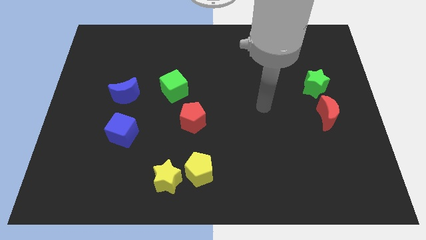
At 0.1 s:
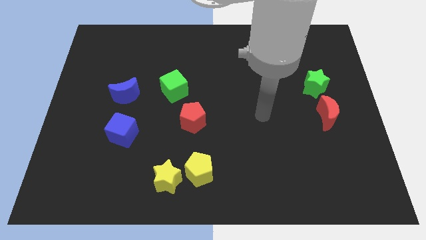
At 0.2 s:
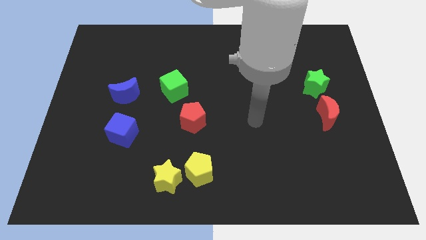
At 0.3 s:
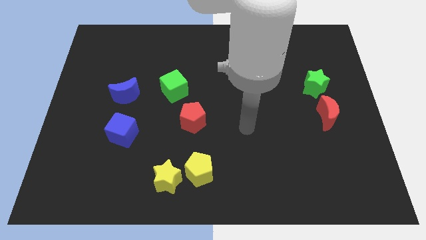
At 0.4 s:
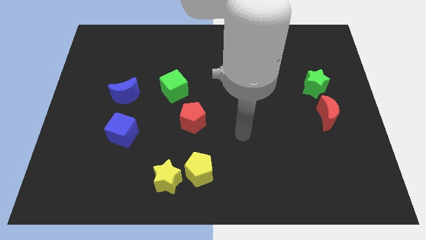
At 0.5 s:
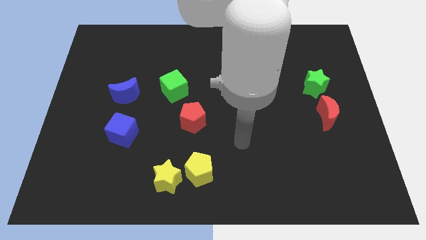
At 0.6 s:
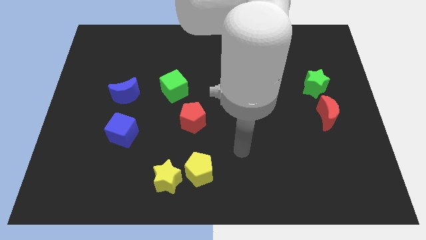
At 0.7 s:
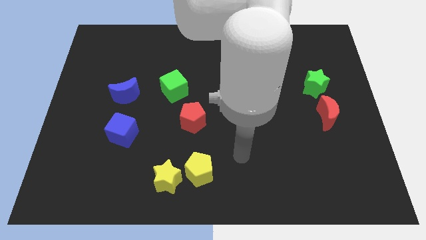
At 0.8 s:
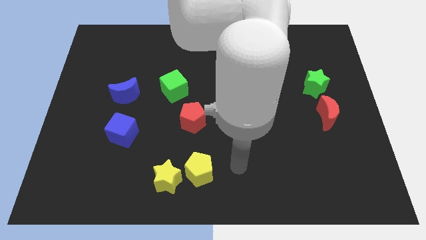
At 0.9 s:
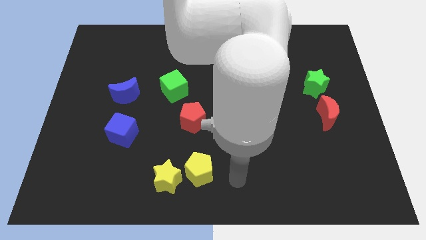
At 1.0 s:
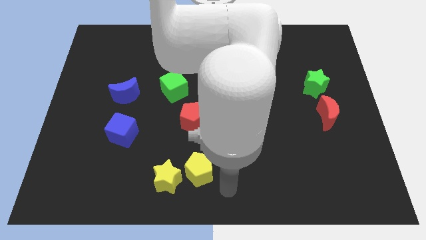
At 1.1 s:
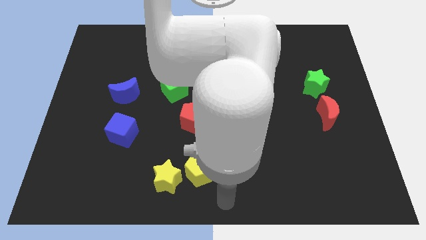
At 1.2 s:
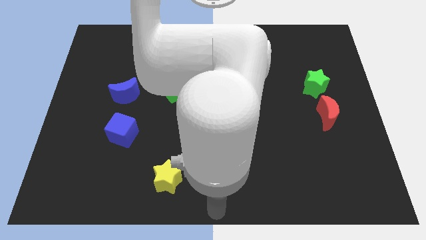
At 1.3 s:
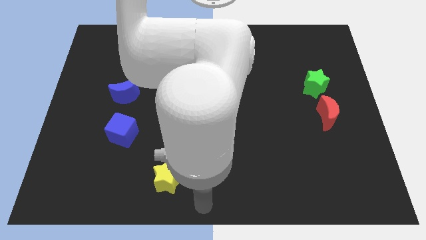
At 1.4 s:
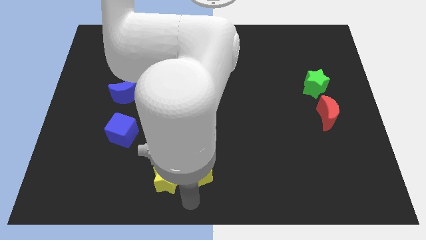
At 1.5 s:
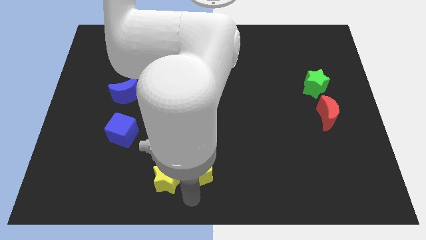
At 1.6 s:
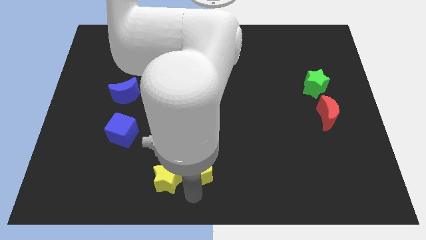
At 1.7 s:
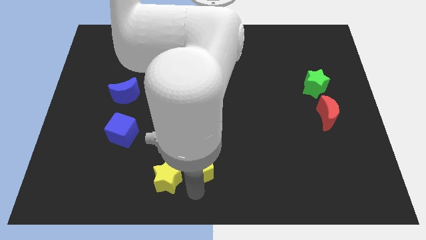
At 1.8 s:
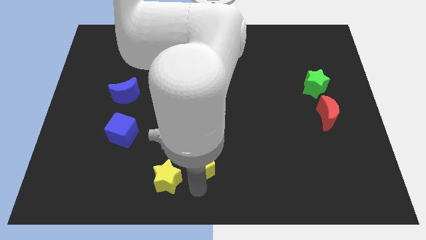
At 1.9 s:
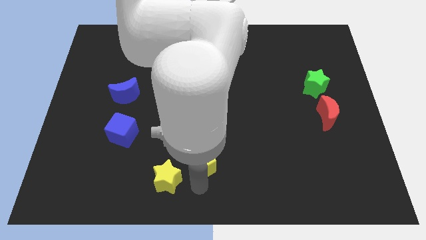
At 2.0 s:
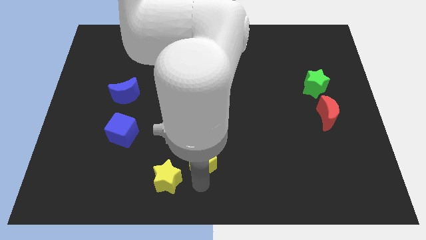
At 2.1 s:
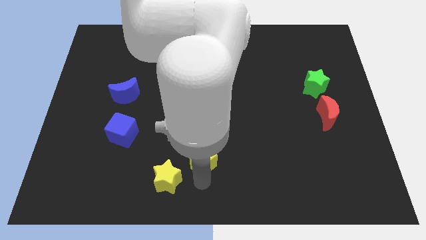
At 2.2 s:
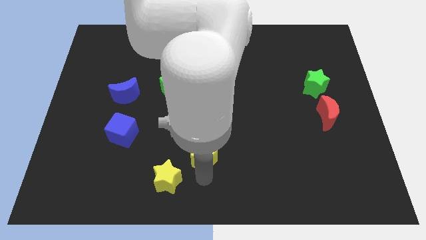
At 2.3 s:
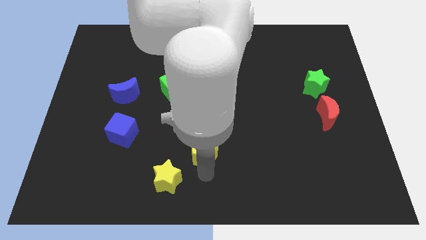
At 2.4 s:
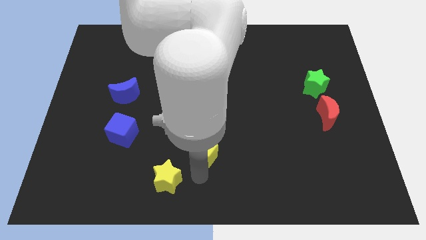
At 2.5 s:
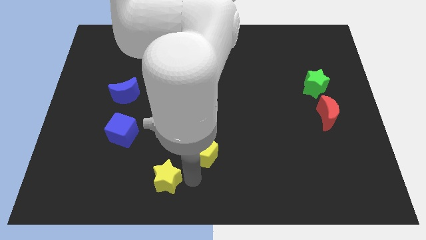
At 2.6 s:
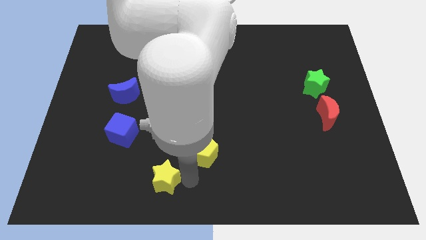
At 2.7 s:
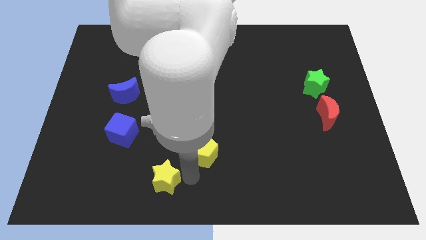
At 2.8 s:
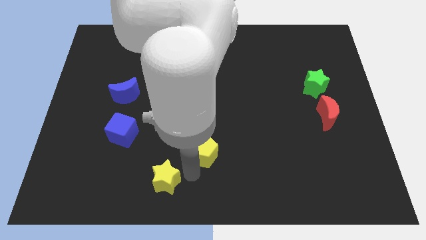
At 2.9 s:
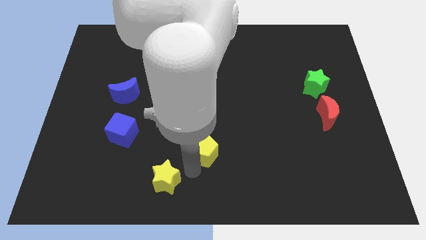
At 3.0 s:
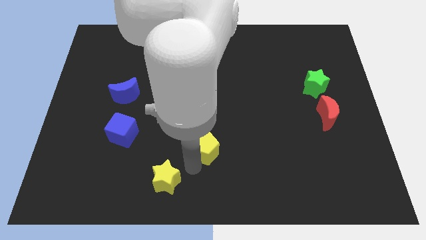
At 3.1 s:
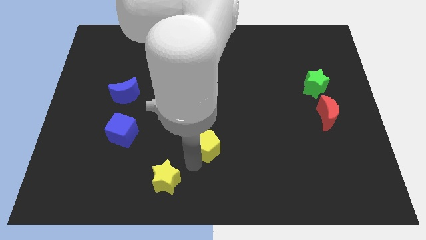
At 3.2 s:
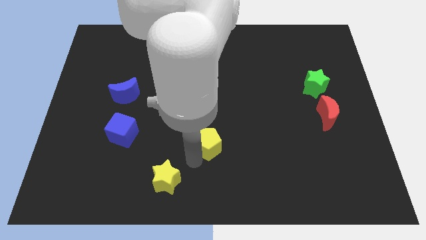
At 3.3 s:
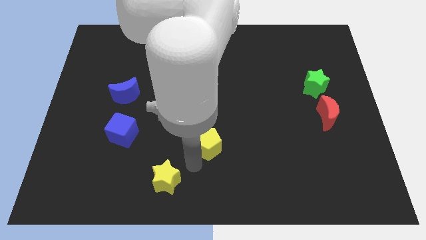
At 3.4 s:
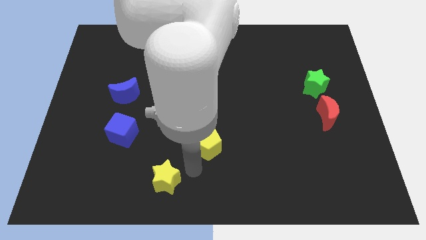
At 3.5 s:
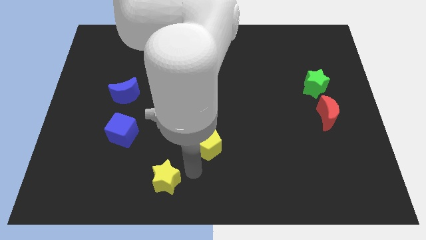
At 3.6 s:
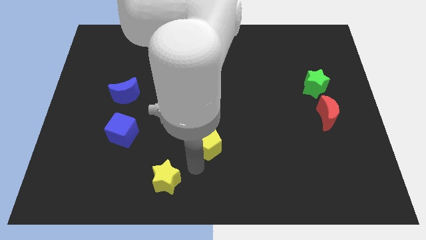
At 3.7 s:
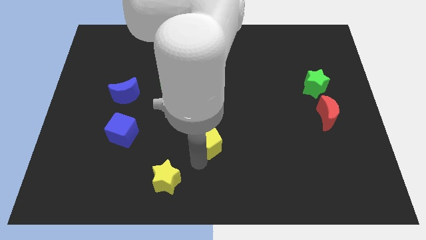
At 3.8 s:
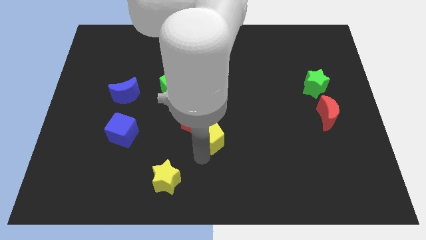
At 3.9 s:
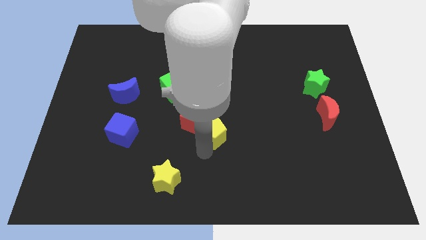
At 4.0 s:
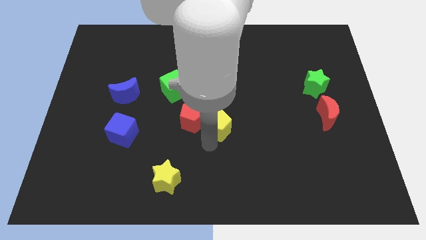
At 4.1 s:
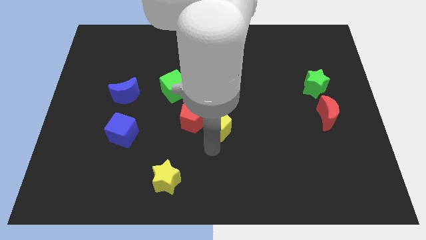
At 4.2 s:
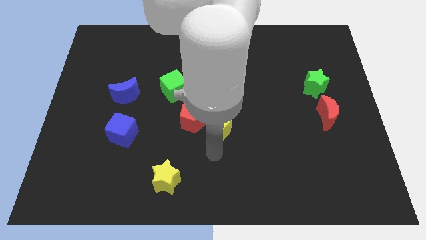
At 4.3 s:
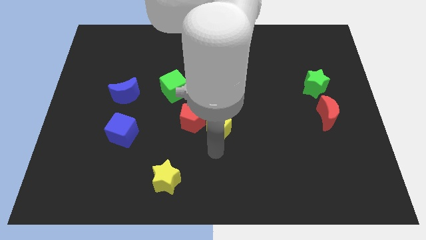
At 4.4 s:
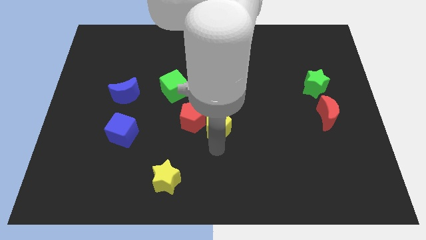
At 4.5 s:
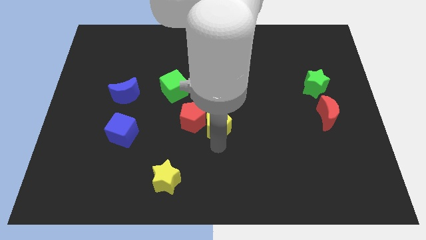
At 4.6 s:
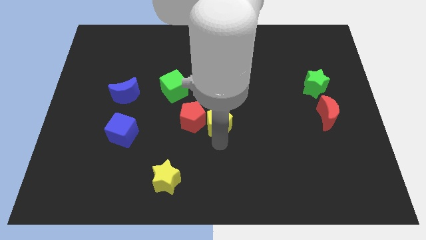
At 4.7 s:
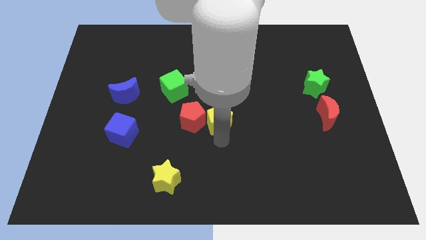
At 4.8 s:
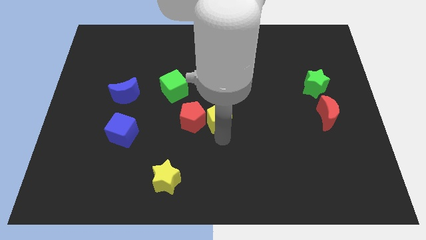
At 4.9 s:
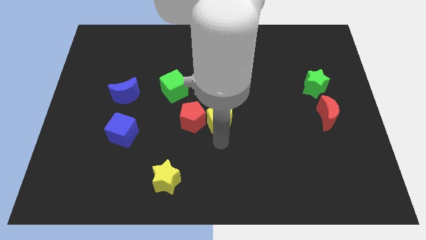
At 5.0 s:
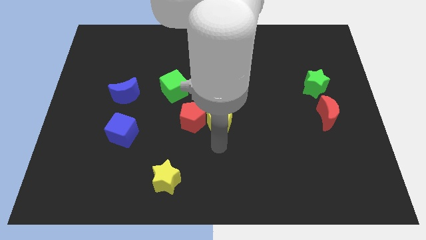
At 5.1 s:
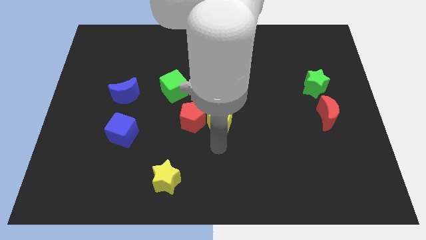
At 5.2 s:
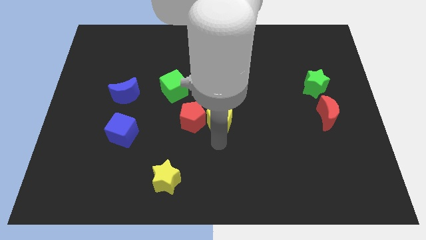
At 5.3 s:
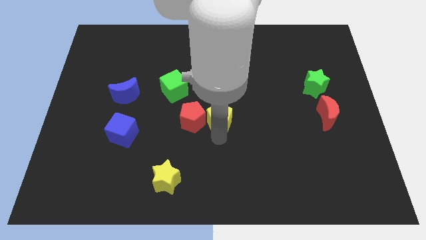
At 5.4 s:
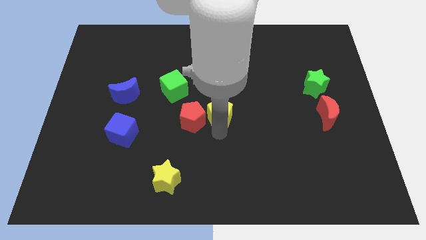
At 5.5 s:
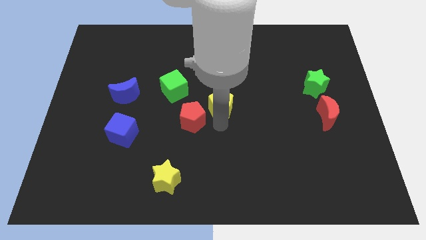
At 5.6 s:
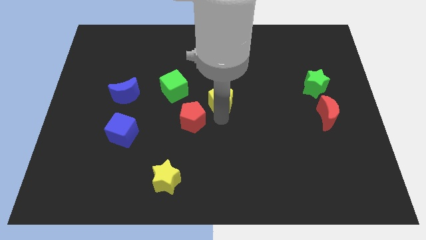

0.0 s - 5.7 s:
move the yellow pentagon right of the green cube
